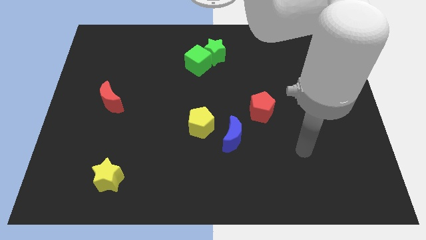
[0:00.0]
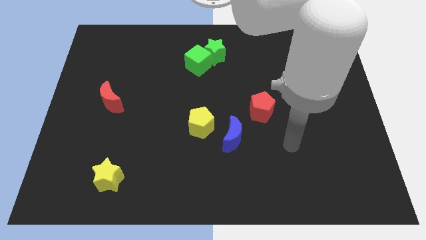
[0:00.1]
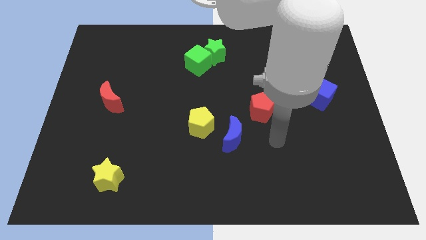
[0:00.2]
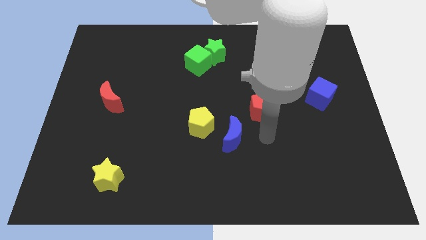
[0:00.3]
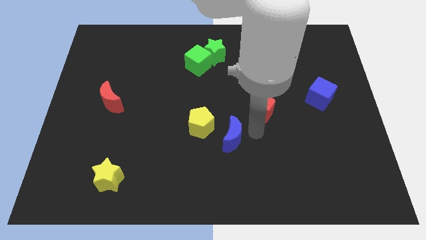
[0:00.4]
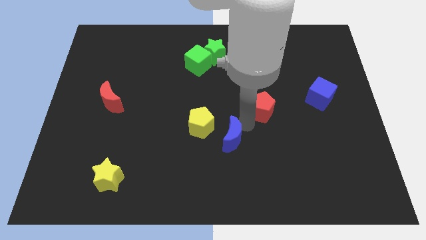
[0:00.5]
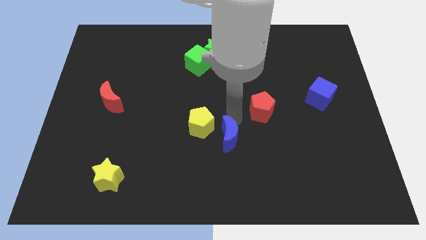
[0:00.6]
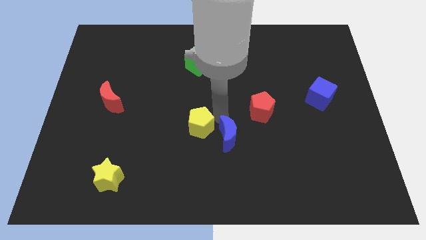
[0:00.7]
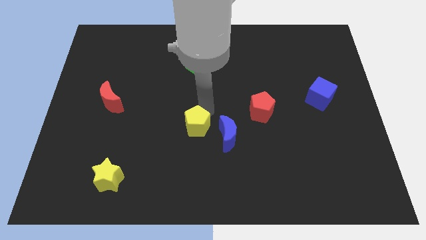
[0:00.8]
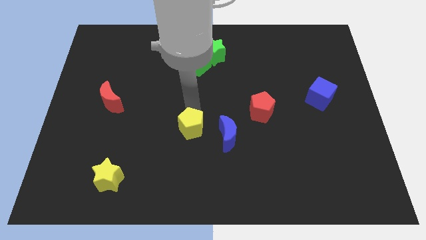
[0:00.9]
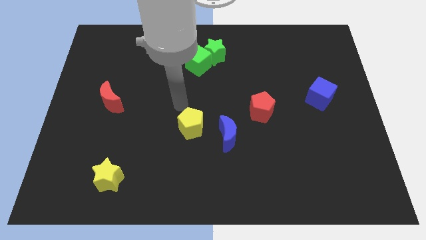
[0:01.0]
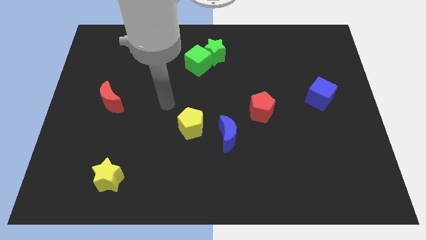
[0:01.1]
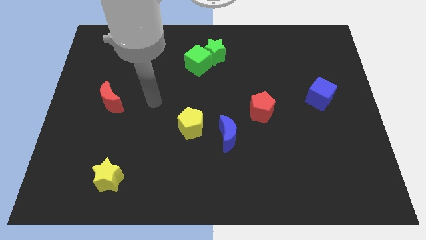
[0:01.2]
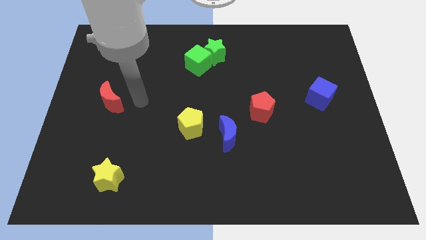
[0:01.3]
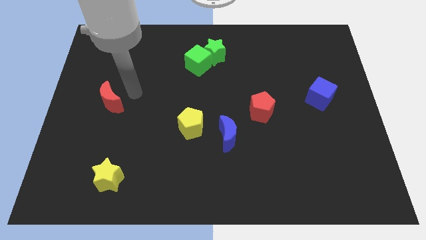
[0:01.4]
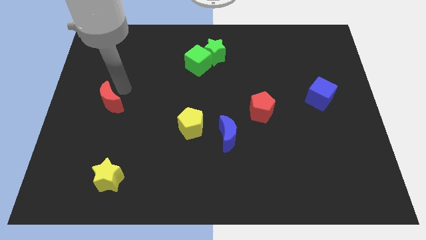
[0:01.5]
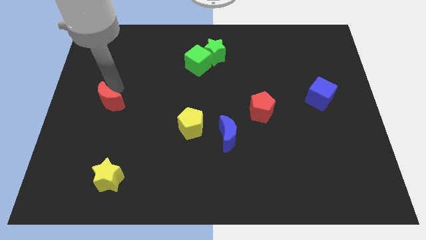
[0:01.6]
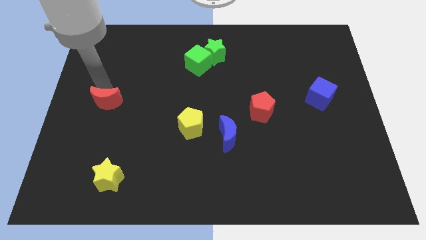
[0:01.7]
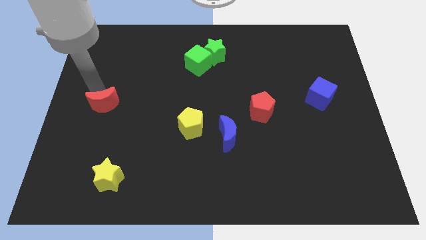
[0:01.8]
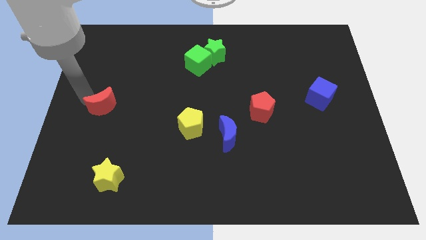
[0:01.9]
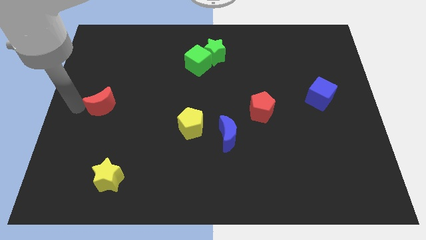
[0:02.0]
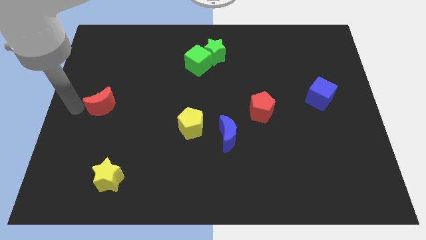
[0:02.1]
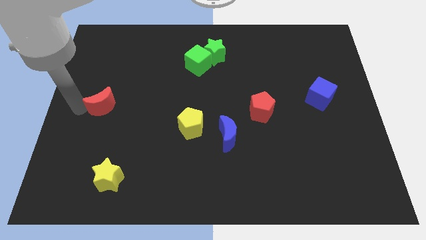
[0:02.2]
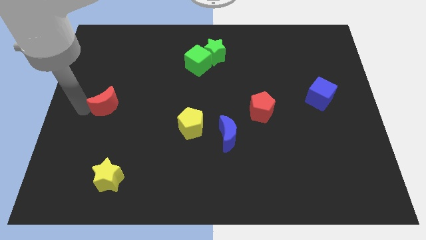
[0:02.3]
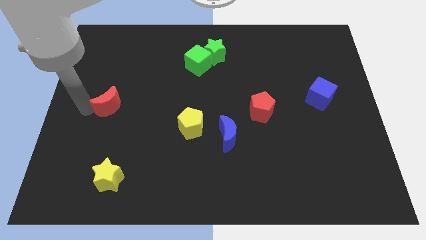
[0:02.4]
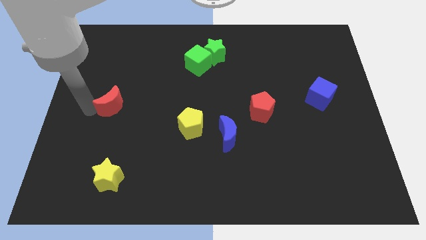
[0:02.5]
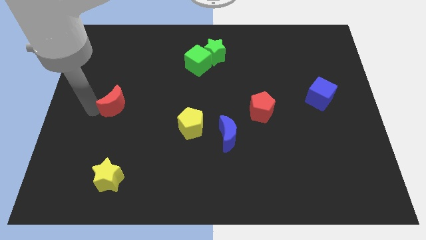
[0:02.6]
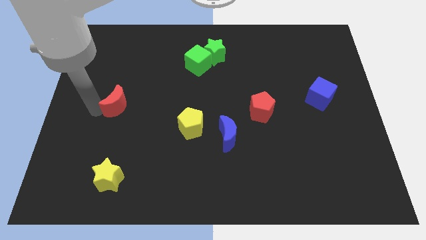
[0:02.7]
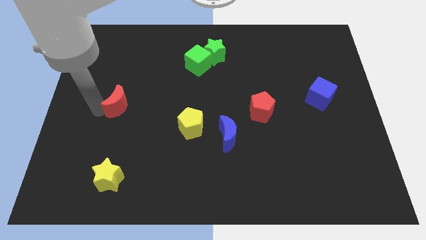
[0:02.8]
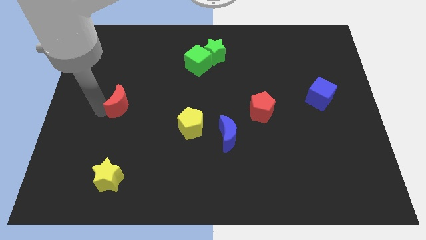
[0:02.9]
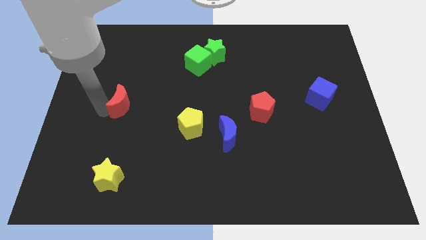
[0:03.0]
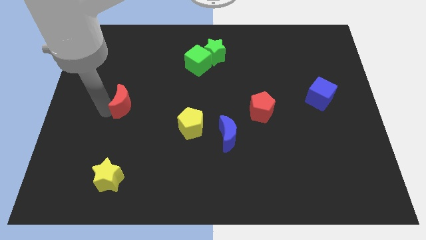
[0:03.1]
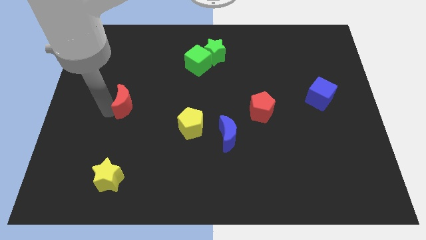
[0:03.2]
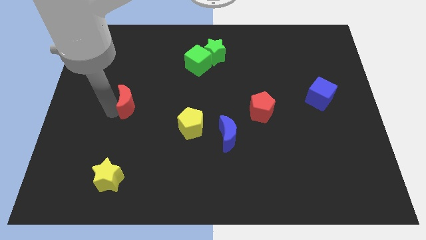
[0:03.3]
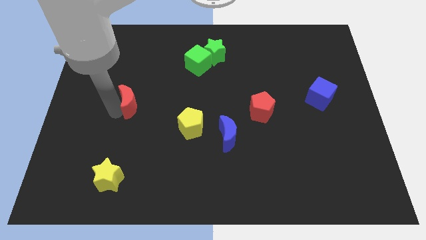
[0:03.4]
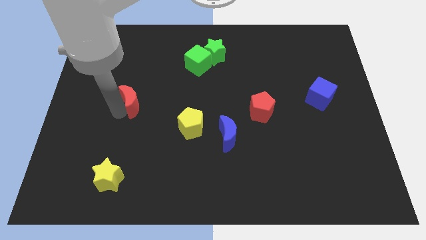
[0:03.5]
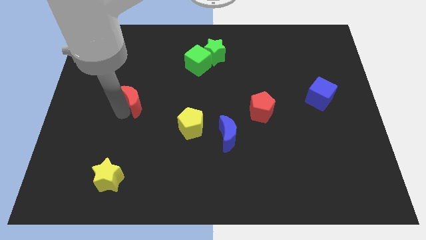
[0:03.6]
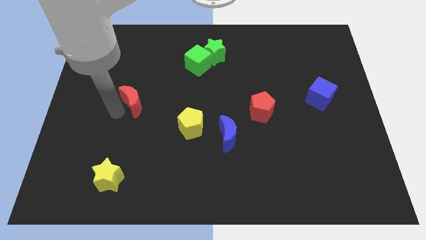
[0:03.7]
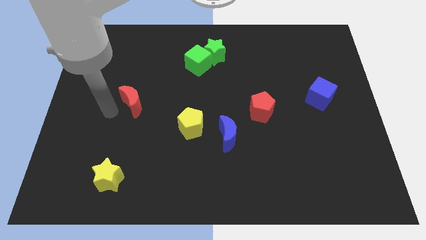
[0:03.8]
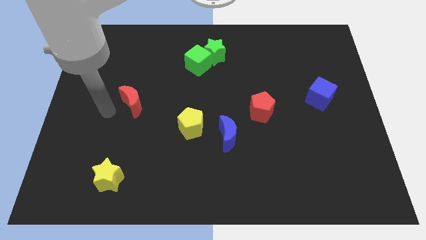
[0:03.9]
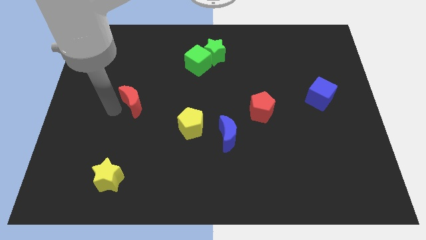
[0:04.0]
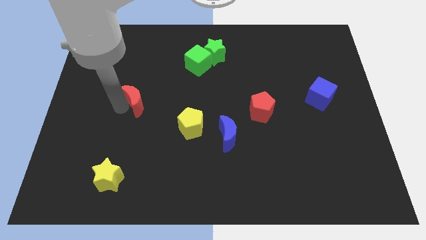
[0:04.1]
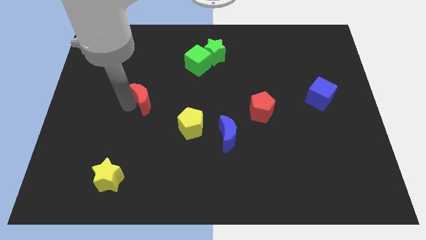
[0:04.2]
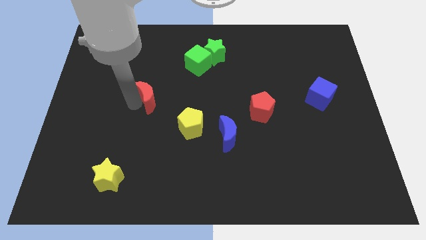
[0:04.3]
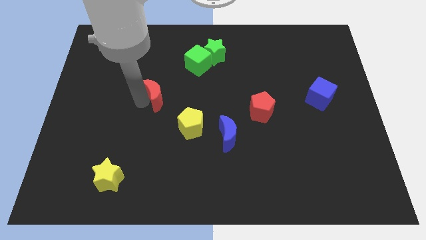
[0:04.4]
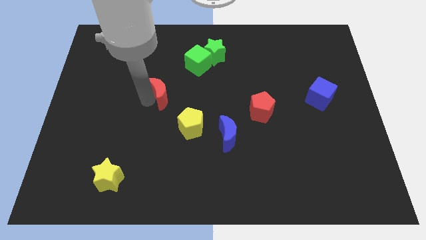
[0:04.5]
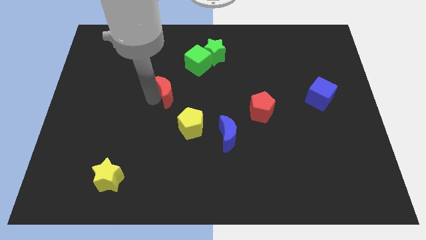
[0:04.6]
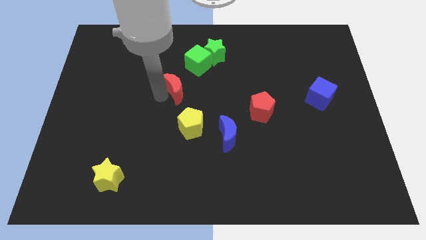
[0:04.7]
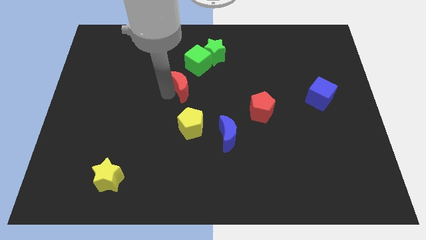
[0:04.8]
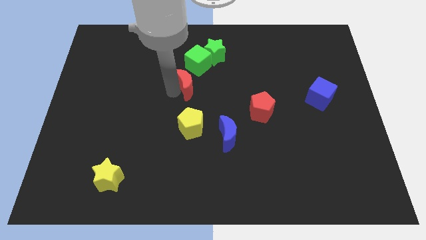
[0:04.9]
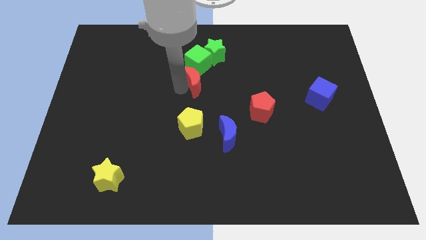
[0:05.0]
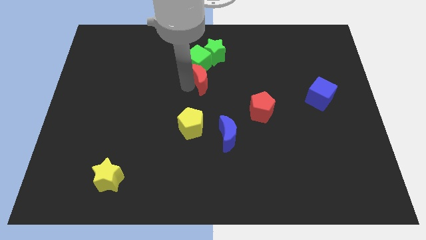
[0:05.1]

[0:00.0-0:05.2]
put the red moon to the bottom right side of the green cube

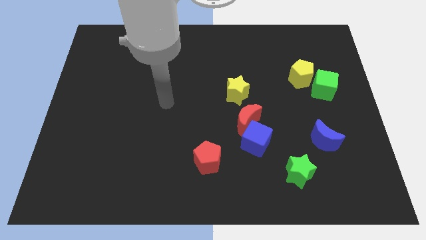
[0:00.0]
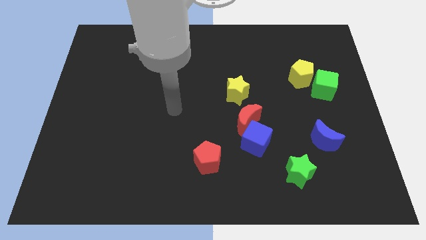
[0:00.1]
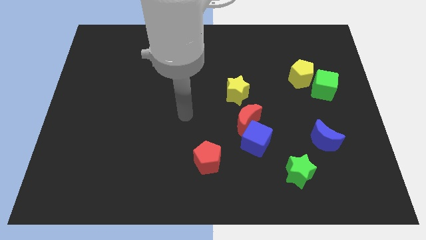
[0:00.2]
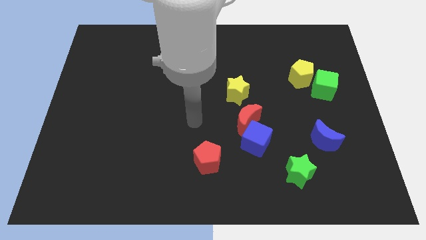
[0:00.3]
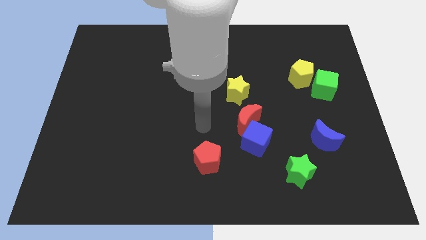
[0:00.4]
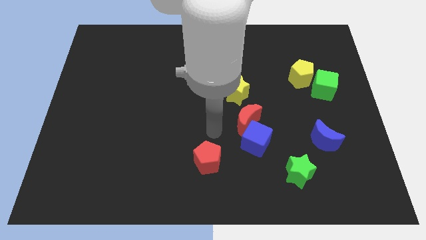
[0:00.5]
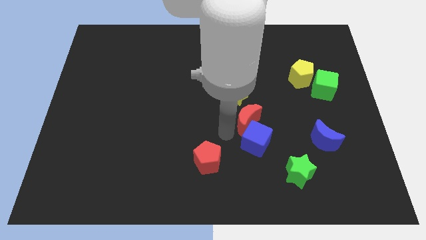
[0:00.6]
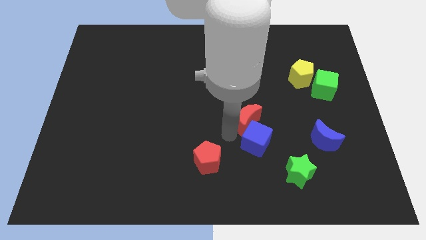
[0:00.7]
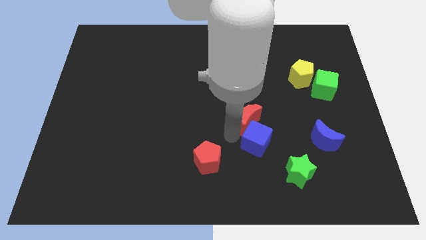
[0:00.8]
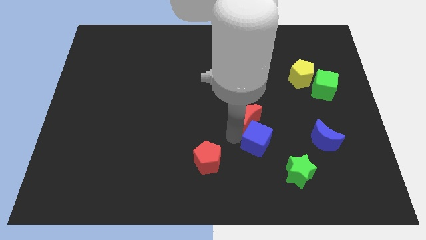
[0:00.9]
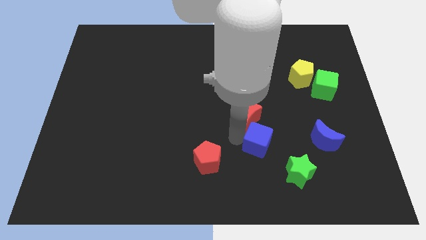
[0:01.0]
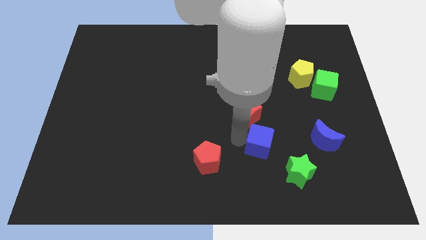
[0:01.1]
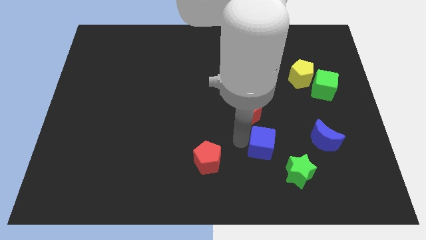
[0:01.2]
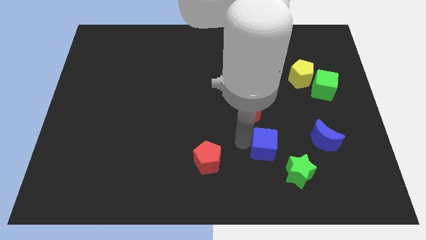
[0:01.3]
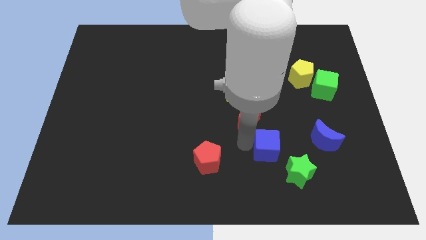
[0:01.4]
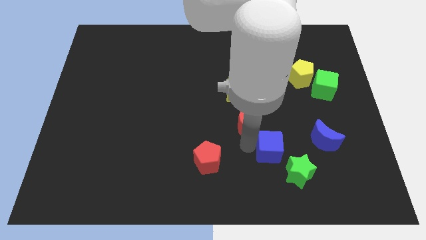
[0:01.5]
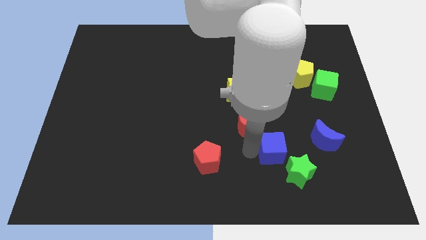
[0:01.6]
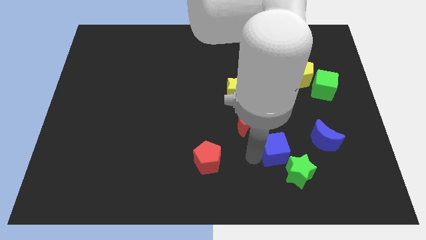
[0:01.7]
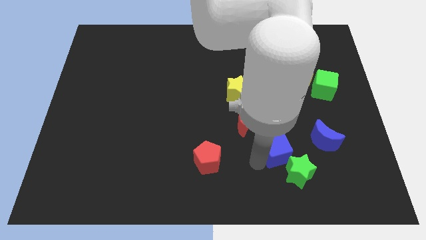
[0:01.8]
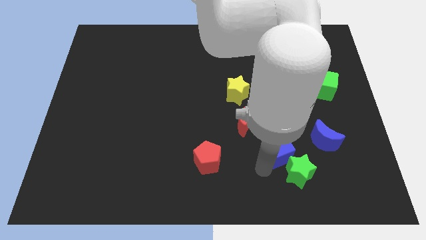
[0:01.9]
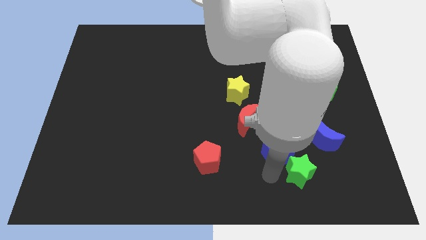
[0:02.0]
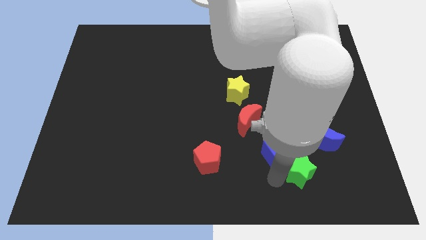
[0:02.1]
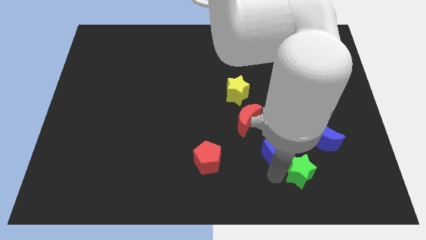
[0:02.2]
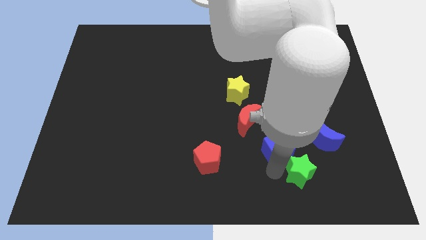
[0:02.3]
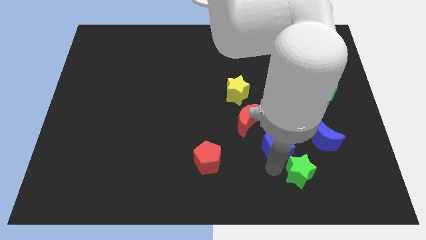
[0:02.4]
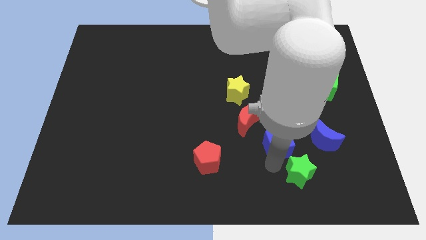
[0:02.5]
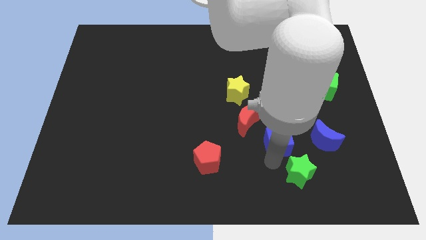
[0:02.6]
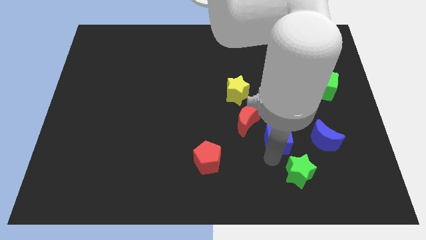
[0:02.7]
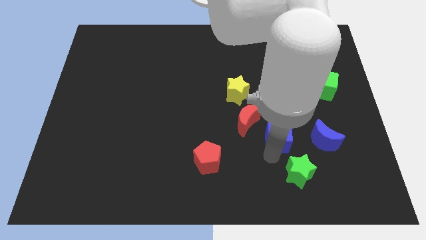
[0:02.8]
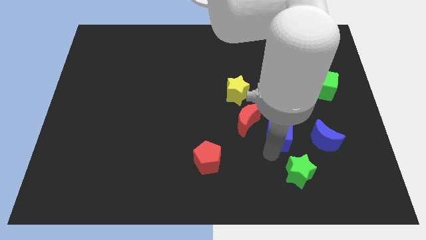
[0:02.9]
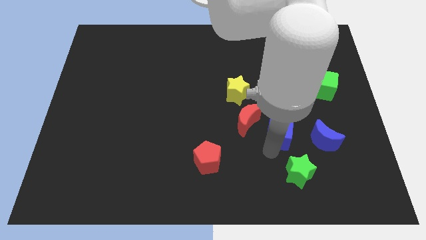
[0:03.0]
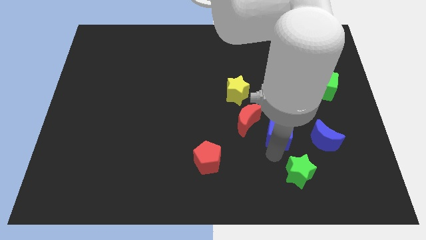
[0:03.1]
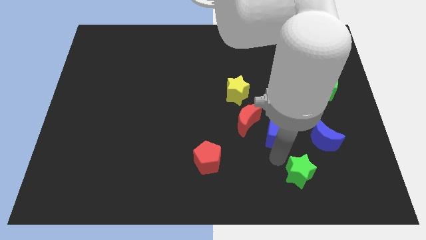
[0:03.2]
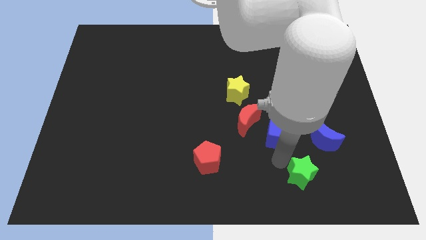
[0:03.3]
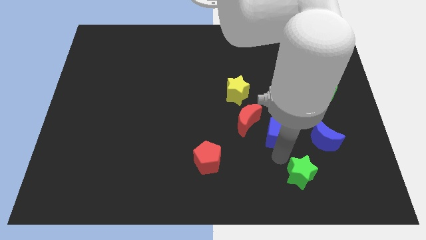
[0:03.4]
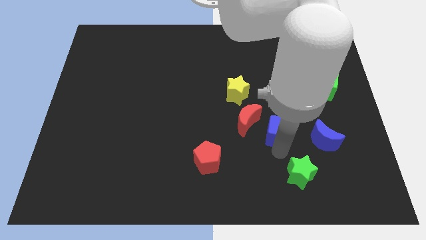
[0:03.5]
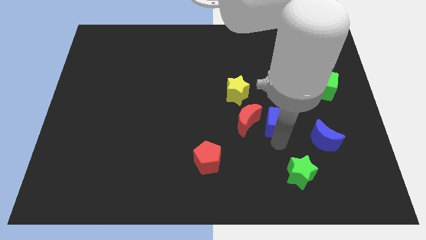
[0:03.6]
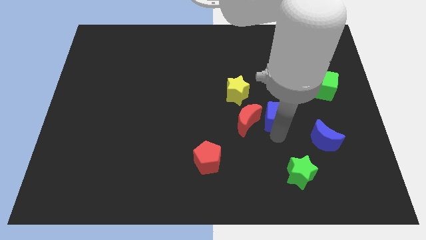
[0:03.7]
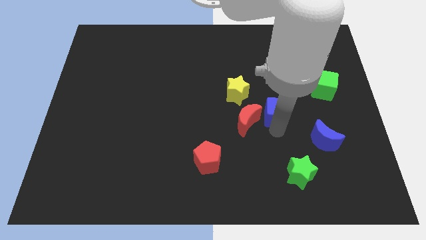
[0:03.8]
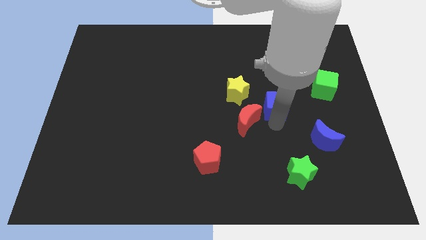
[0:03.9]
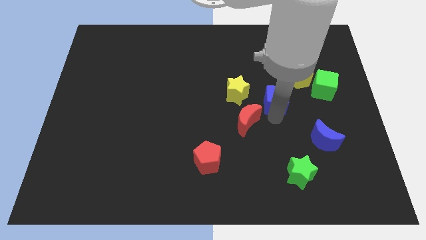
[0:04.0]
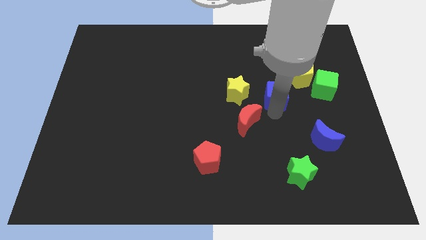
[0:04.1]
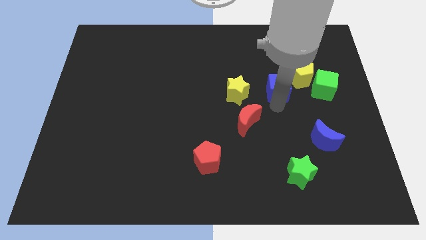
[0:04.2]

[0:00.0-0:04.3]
move the blue cube to the left of the yellow pentagon
